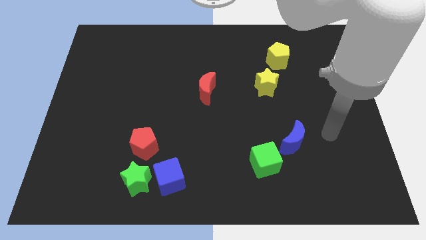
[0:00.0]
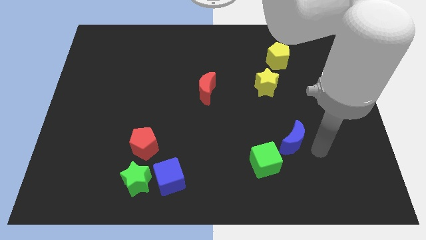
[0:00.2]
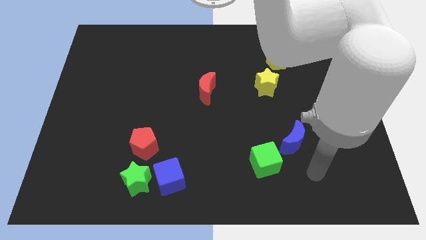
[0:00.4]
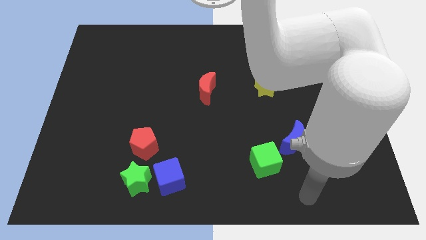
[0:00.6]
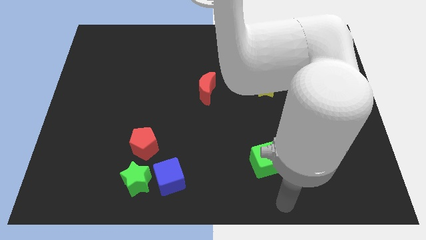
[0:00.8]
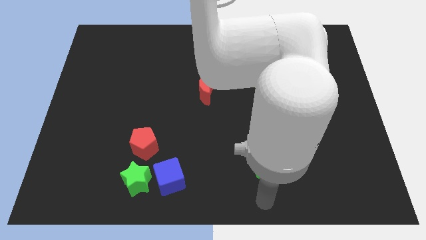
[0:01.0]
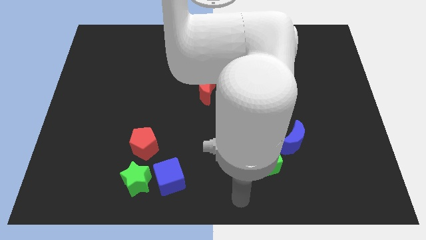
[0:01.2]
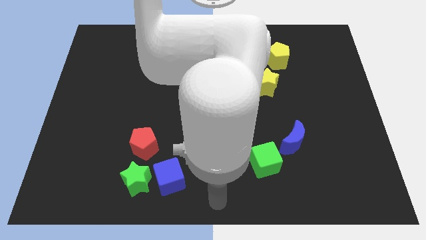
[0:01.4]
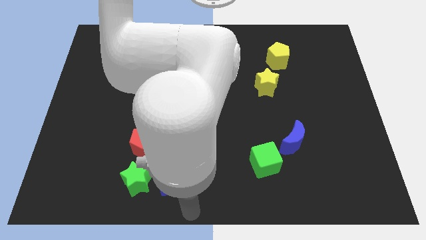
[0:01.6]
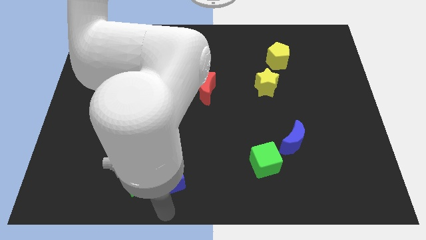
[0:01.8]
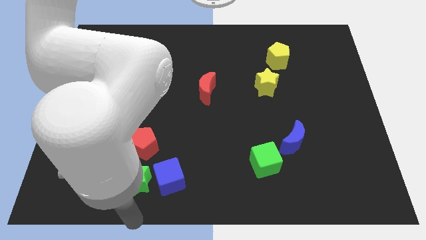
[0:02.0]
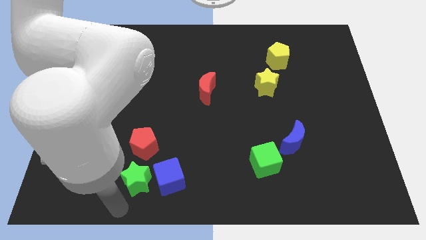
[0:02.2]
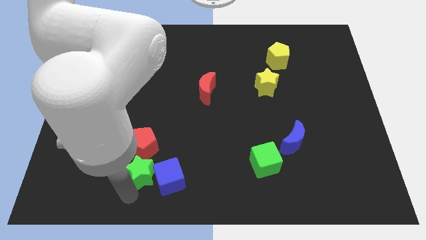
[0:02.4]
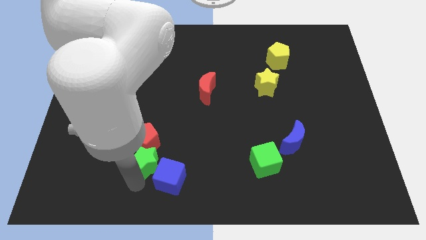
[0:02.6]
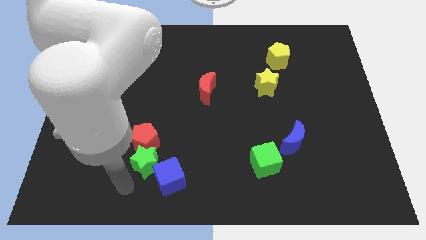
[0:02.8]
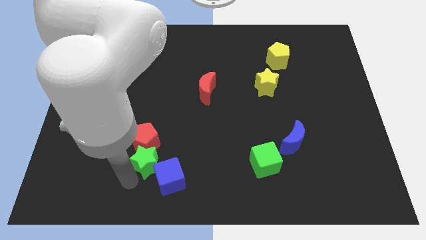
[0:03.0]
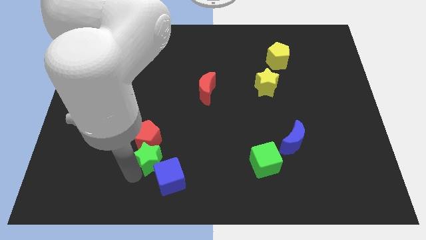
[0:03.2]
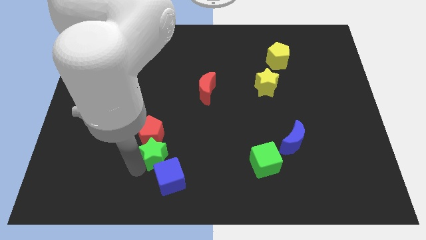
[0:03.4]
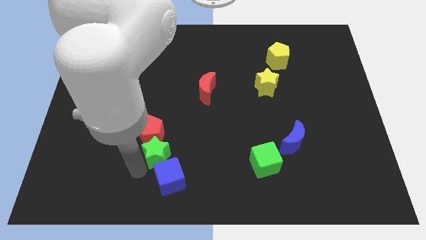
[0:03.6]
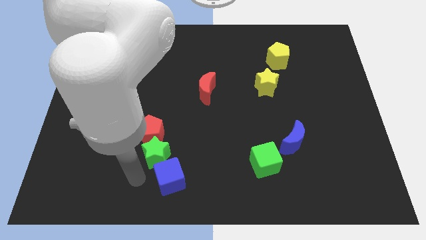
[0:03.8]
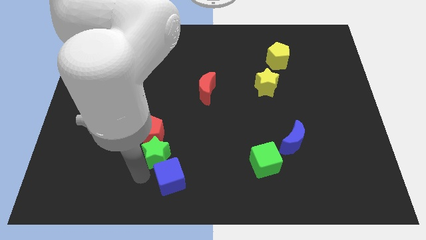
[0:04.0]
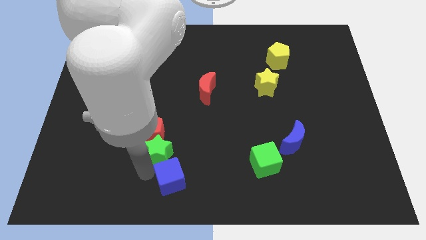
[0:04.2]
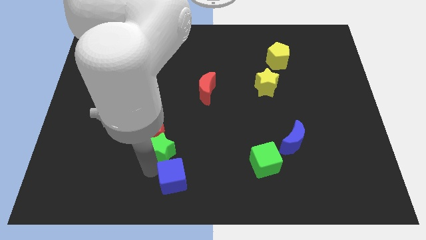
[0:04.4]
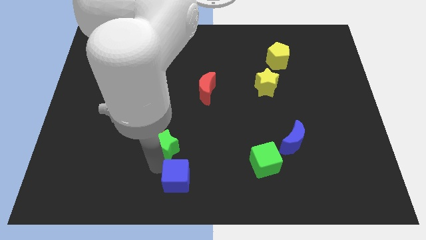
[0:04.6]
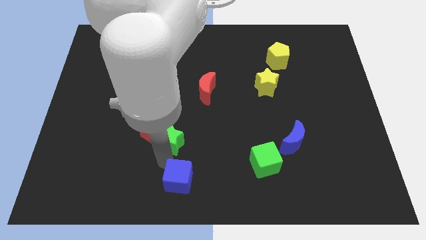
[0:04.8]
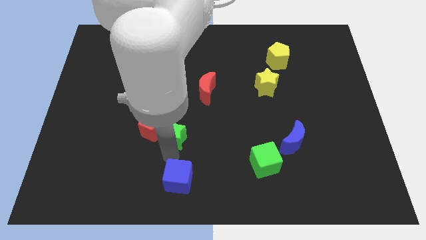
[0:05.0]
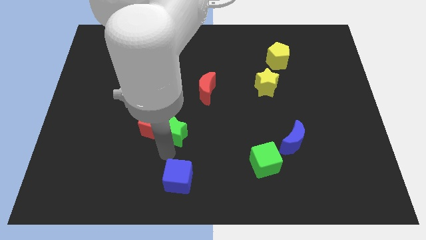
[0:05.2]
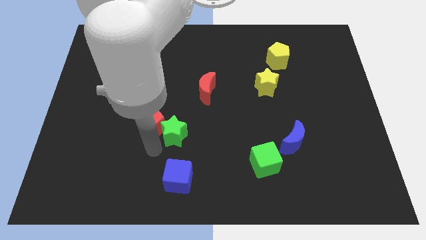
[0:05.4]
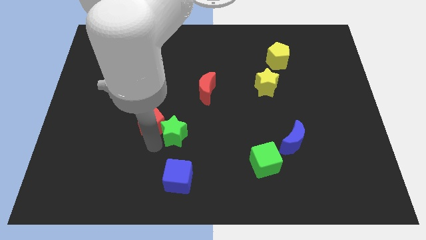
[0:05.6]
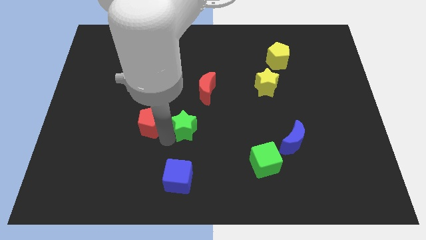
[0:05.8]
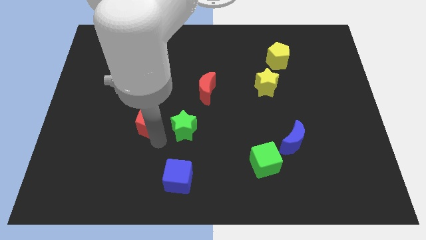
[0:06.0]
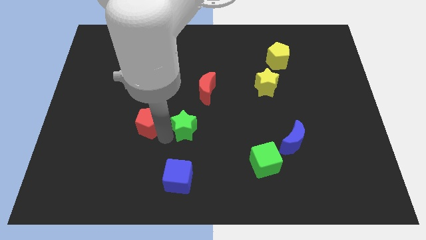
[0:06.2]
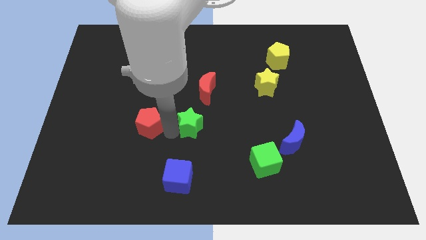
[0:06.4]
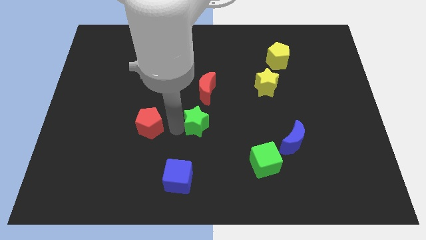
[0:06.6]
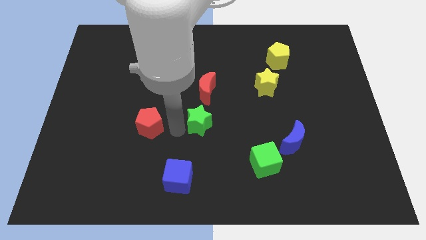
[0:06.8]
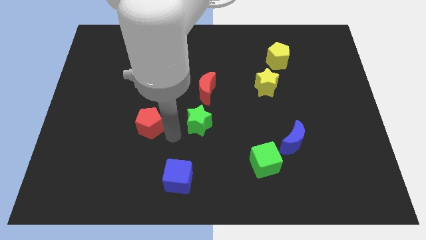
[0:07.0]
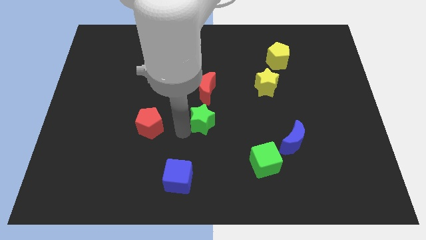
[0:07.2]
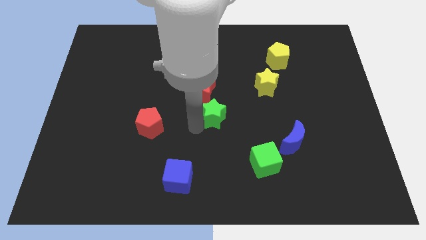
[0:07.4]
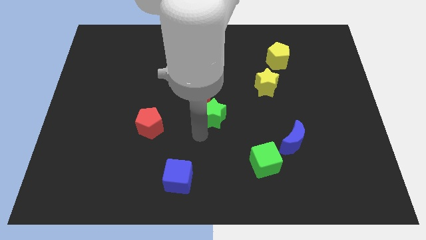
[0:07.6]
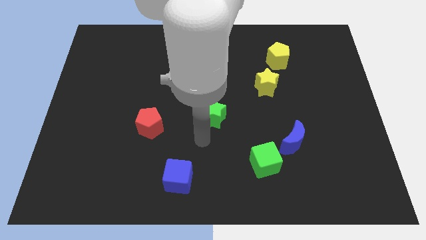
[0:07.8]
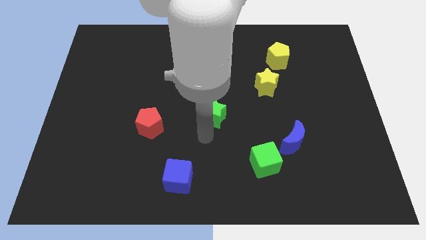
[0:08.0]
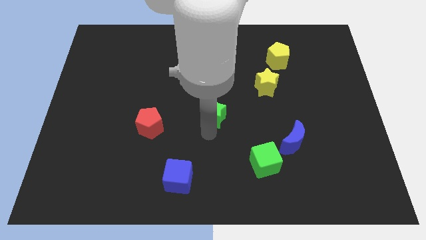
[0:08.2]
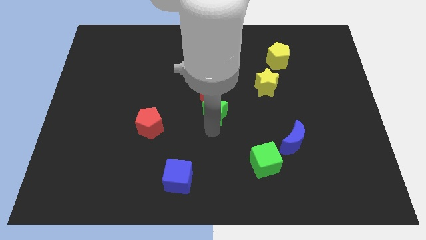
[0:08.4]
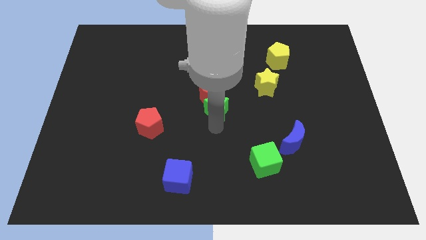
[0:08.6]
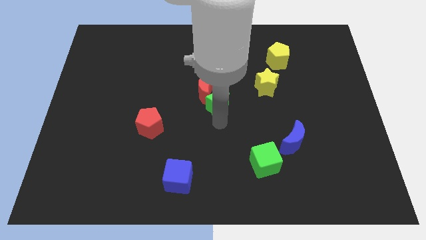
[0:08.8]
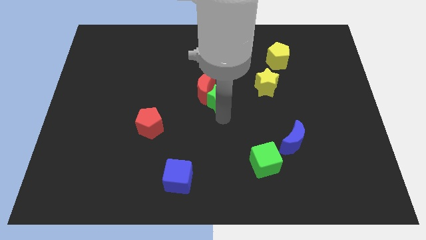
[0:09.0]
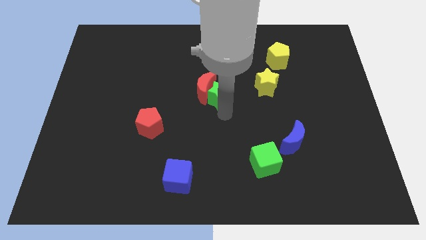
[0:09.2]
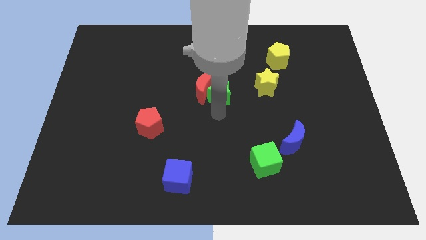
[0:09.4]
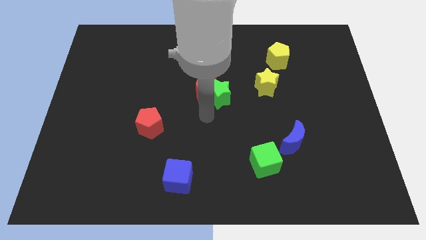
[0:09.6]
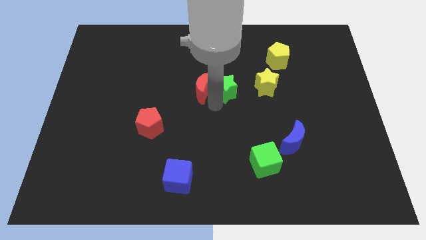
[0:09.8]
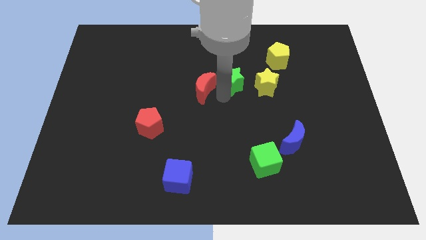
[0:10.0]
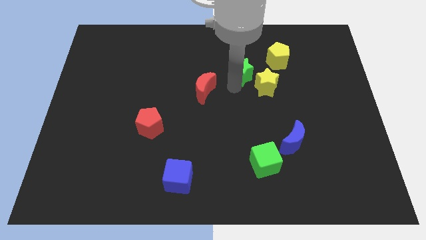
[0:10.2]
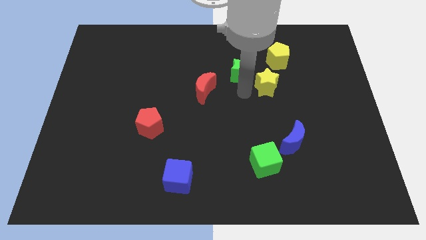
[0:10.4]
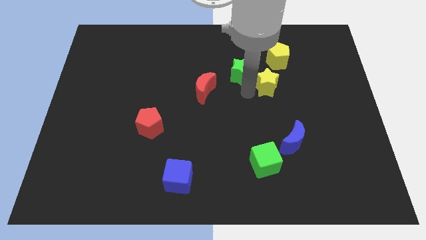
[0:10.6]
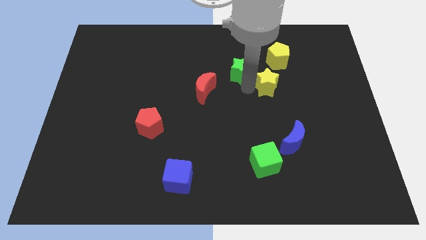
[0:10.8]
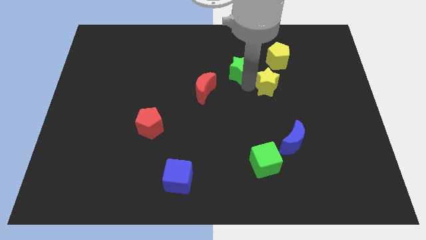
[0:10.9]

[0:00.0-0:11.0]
slide the green star just left of the yellow pentagon

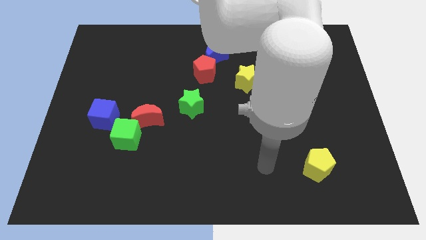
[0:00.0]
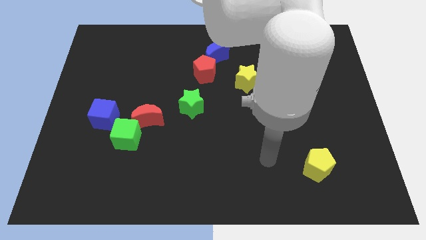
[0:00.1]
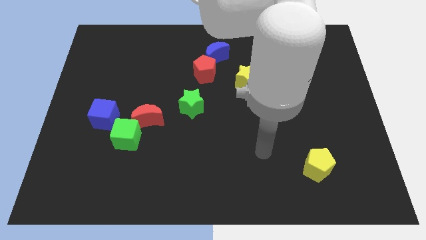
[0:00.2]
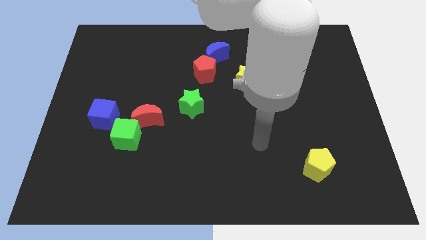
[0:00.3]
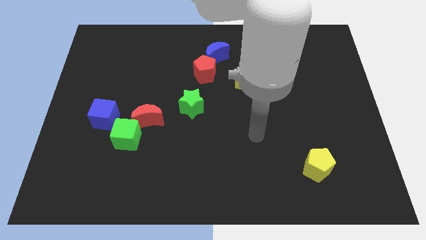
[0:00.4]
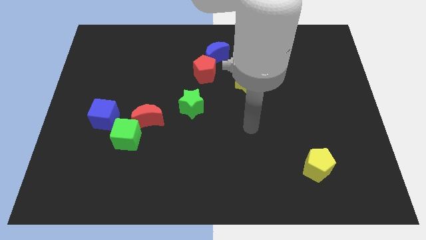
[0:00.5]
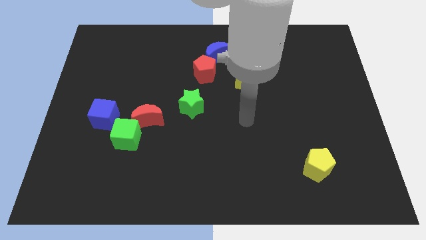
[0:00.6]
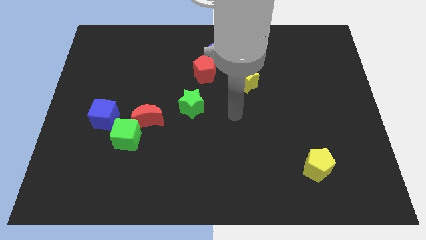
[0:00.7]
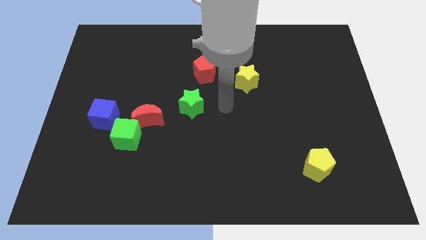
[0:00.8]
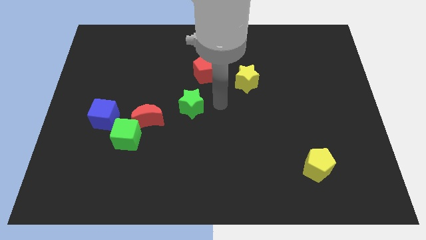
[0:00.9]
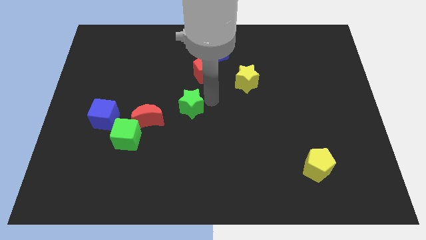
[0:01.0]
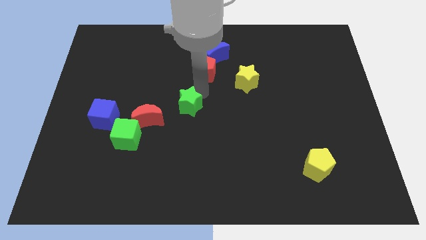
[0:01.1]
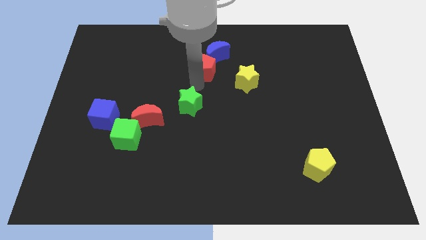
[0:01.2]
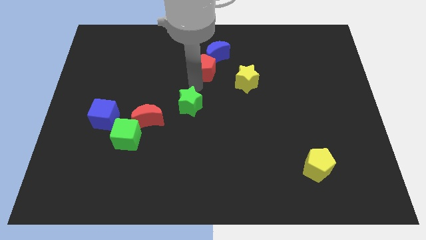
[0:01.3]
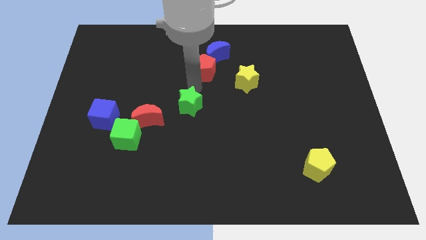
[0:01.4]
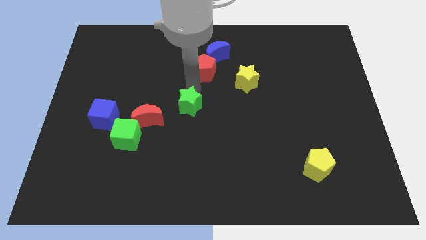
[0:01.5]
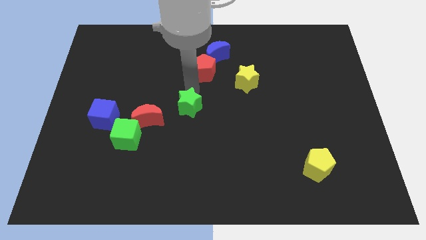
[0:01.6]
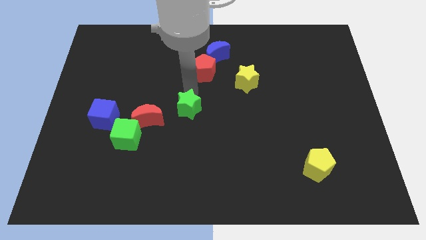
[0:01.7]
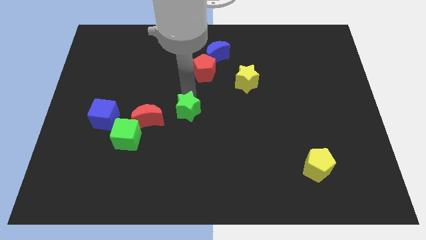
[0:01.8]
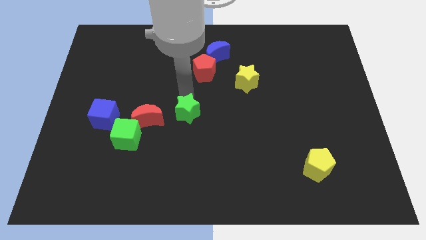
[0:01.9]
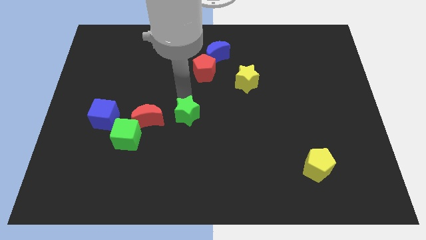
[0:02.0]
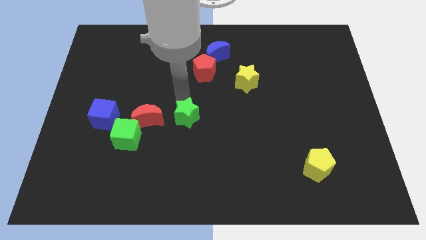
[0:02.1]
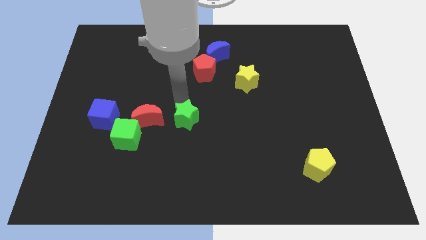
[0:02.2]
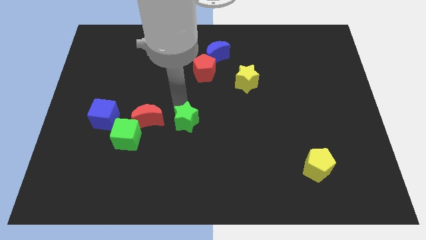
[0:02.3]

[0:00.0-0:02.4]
slide the green star to the right side of the green cube
